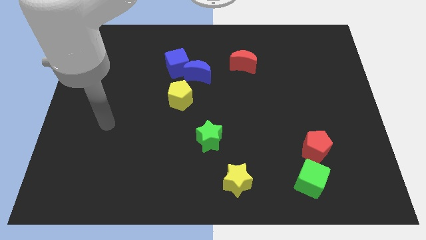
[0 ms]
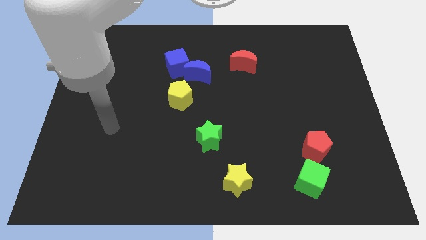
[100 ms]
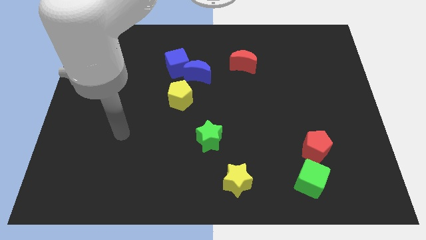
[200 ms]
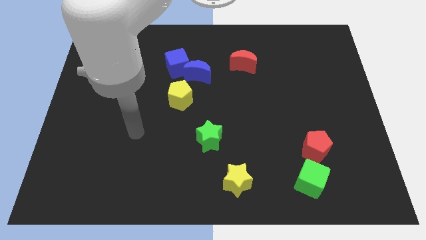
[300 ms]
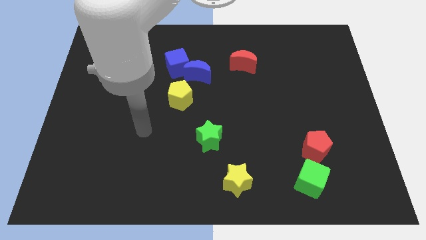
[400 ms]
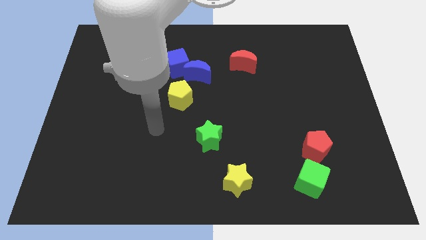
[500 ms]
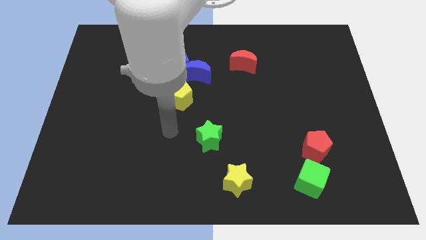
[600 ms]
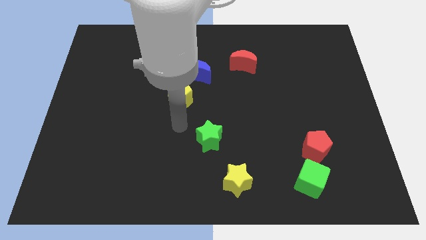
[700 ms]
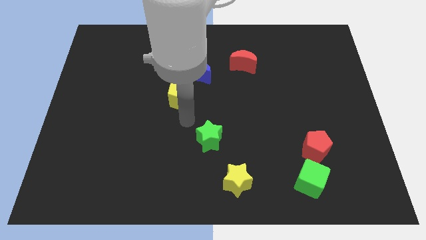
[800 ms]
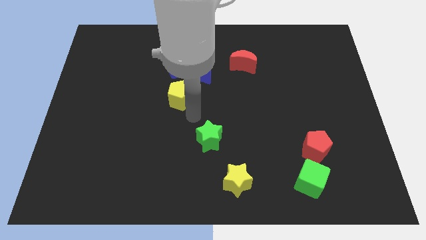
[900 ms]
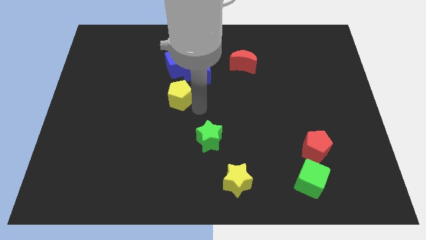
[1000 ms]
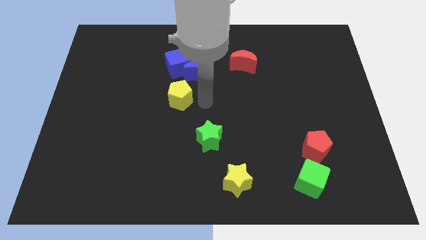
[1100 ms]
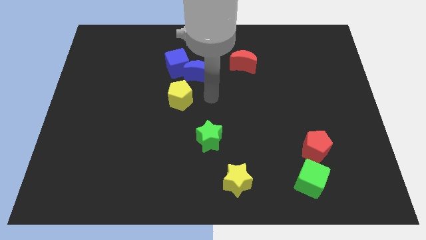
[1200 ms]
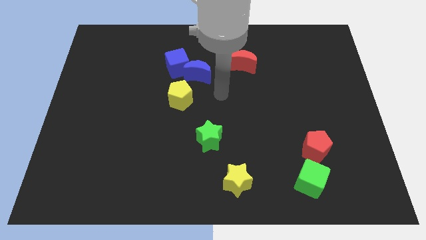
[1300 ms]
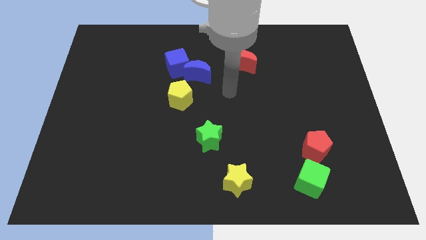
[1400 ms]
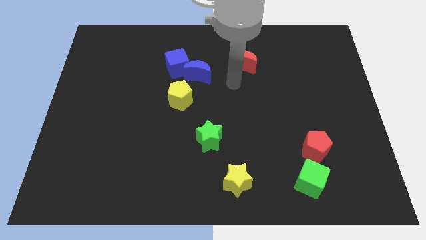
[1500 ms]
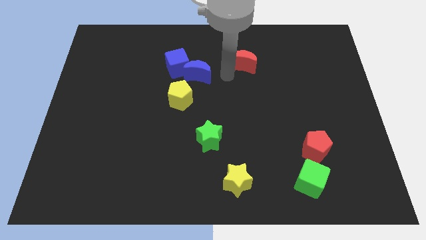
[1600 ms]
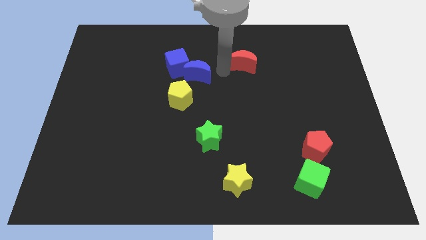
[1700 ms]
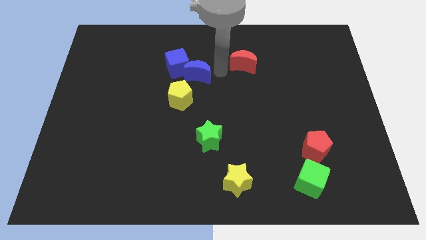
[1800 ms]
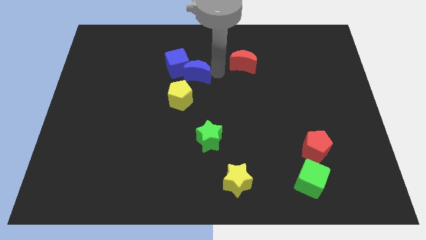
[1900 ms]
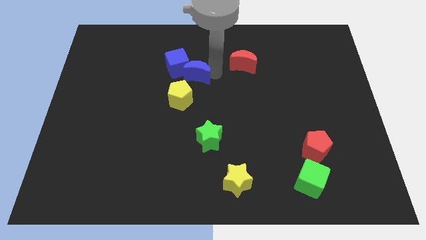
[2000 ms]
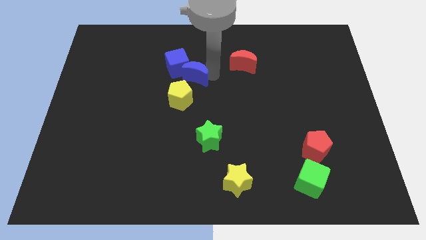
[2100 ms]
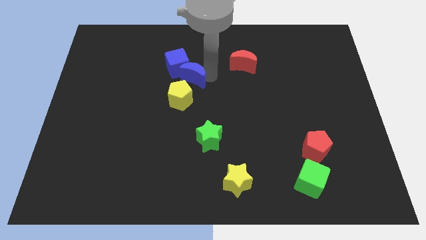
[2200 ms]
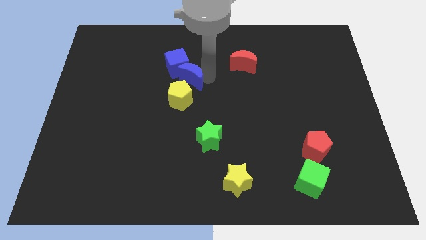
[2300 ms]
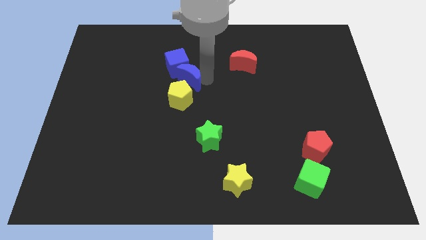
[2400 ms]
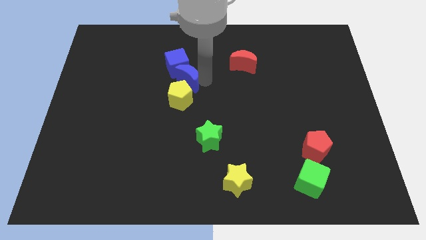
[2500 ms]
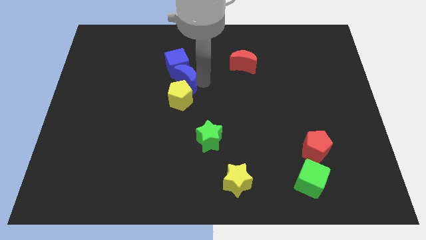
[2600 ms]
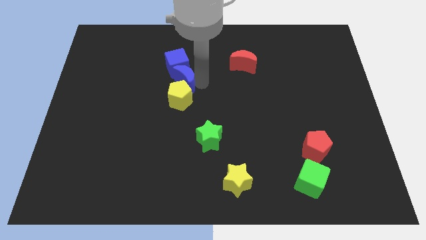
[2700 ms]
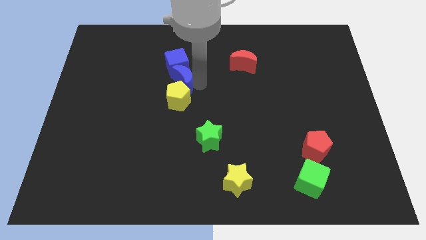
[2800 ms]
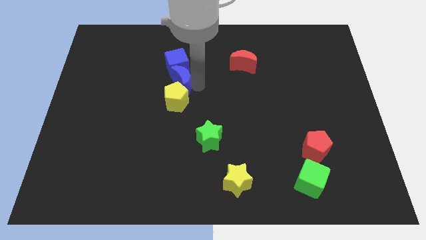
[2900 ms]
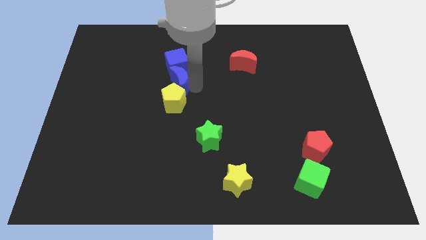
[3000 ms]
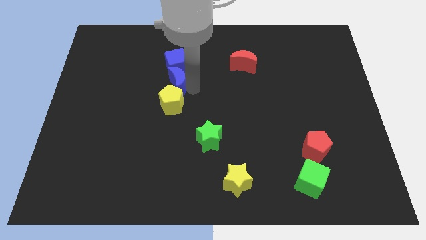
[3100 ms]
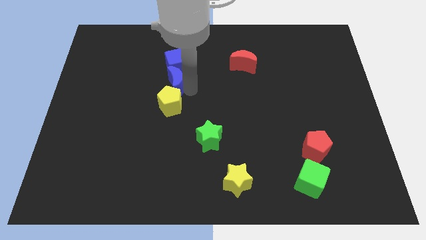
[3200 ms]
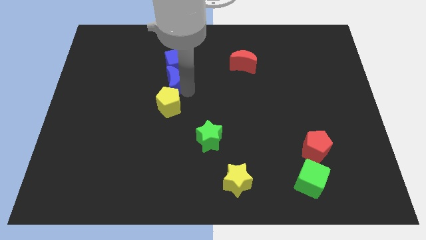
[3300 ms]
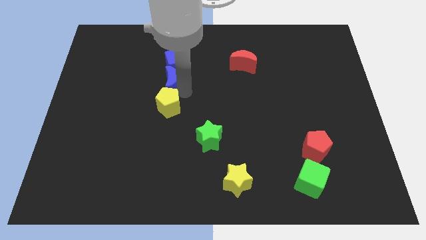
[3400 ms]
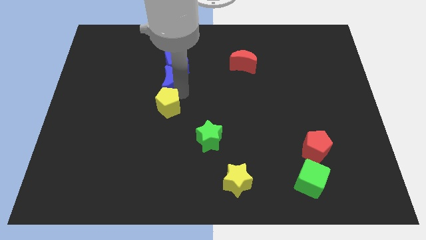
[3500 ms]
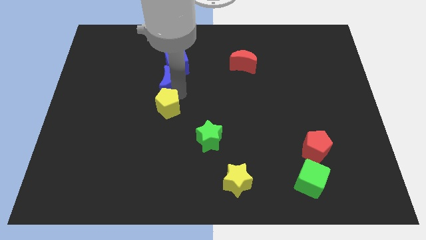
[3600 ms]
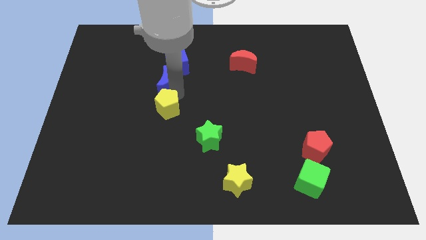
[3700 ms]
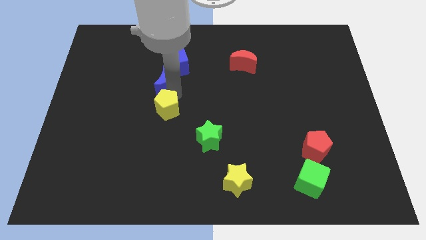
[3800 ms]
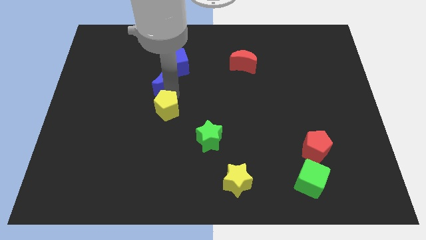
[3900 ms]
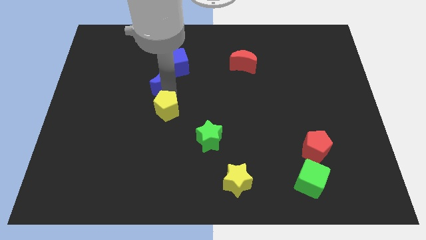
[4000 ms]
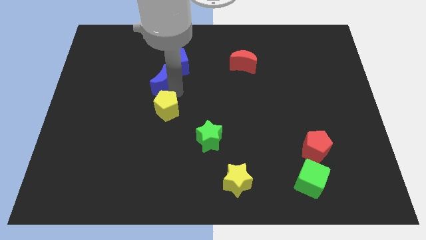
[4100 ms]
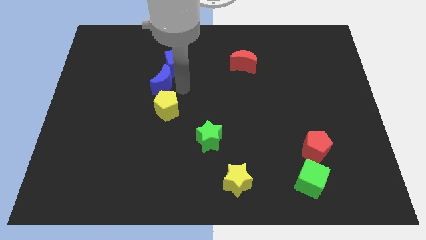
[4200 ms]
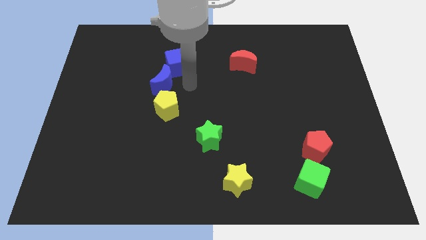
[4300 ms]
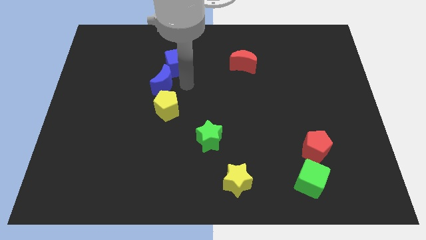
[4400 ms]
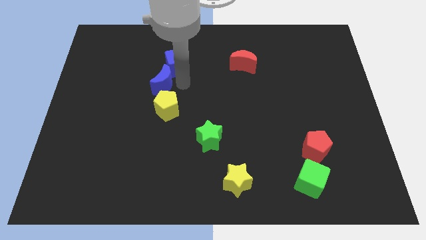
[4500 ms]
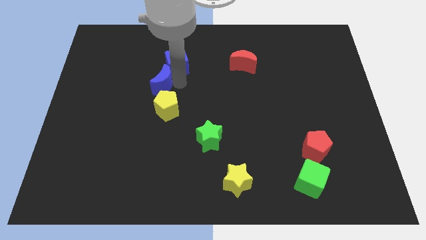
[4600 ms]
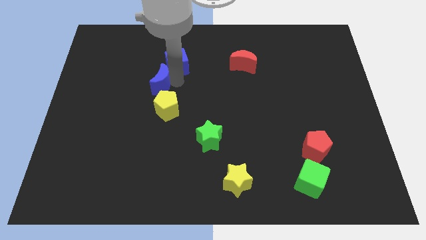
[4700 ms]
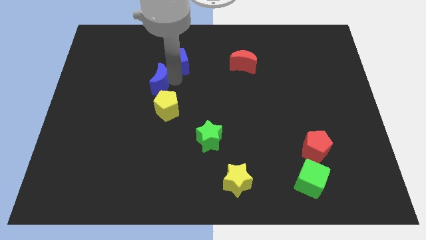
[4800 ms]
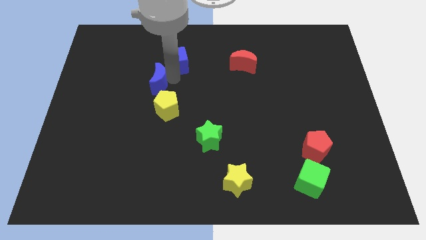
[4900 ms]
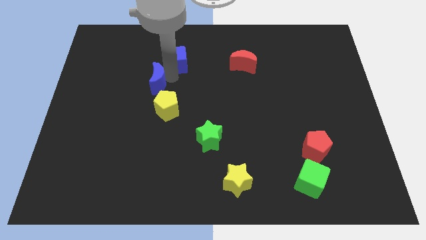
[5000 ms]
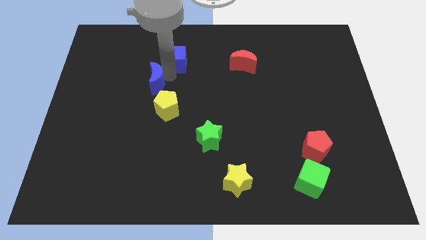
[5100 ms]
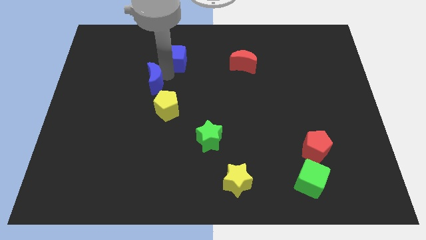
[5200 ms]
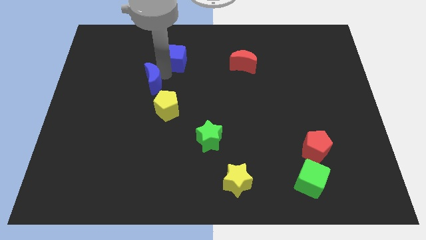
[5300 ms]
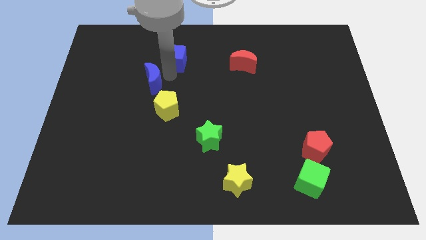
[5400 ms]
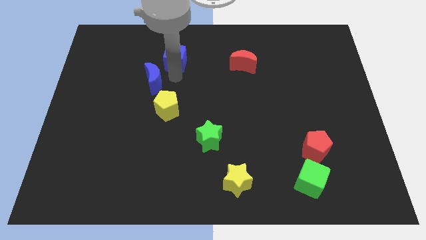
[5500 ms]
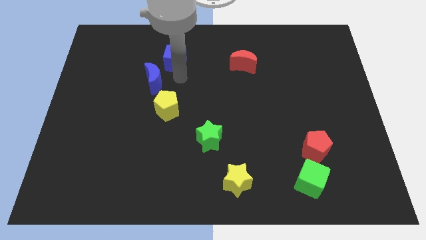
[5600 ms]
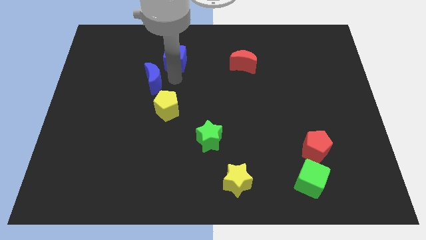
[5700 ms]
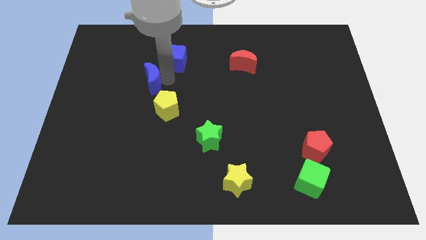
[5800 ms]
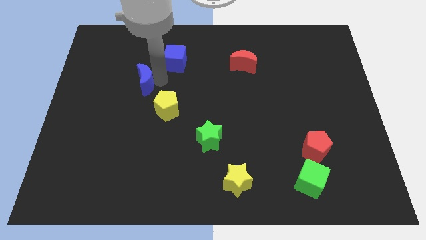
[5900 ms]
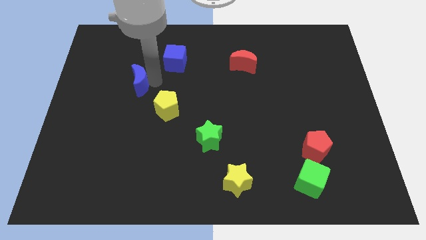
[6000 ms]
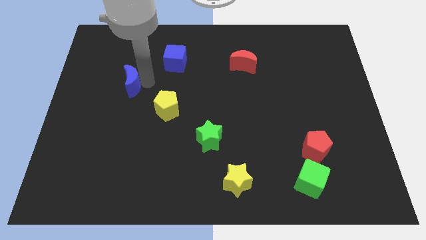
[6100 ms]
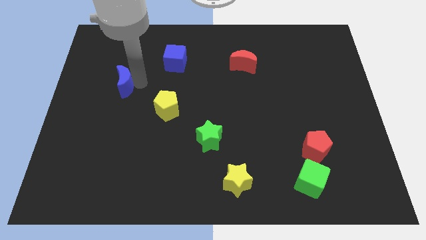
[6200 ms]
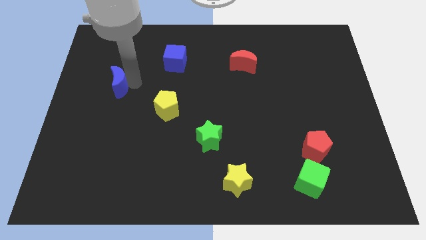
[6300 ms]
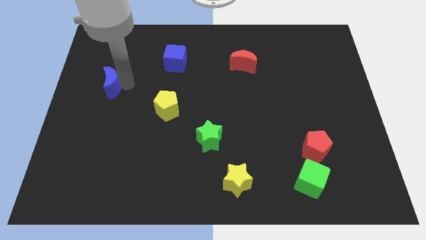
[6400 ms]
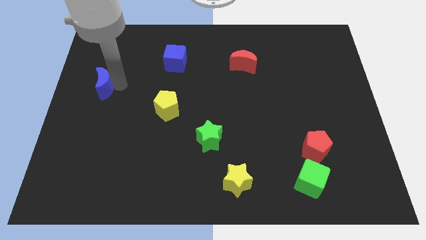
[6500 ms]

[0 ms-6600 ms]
move the blue moon to the center left

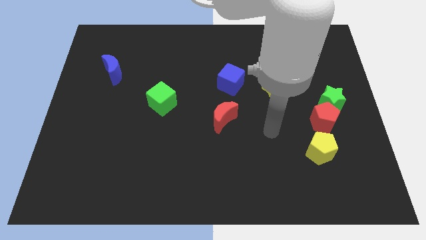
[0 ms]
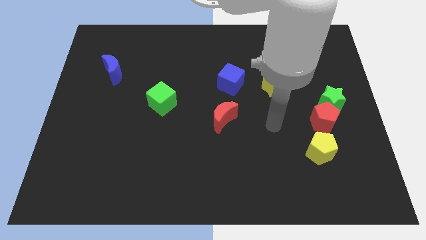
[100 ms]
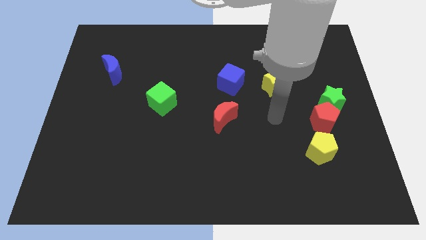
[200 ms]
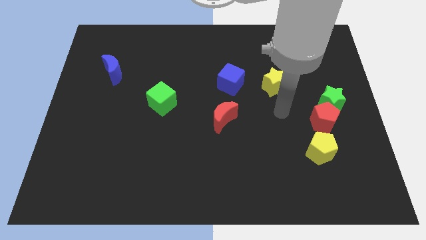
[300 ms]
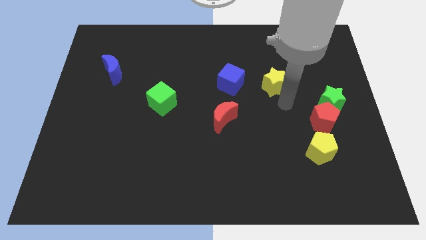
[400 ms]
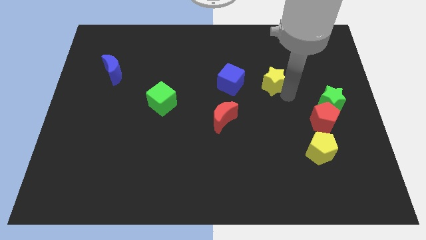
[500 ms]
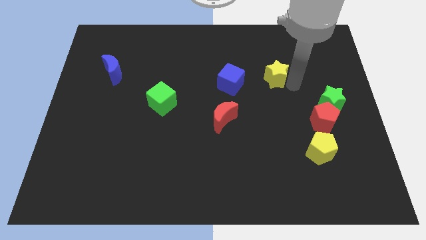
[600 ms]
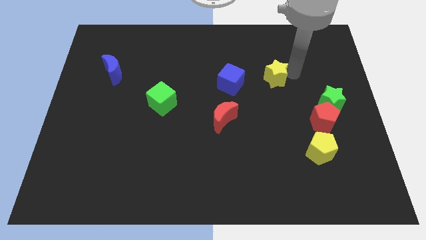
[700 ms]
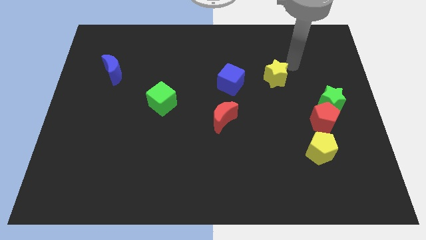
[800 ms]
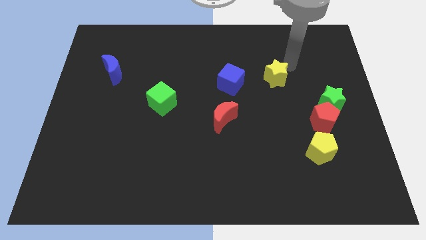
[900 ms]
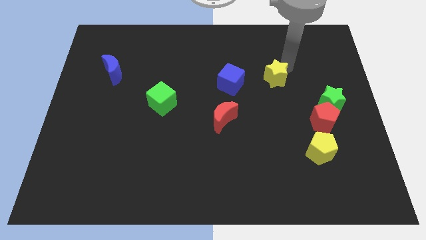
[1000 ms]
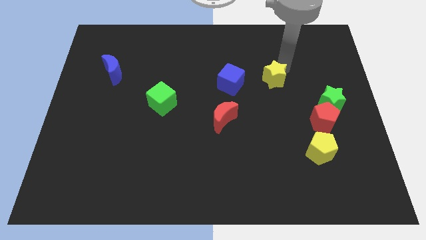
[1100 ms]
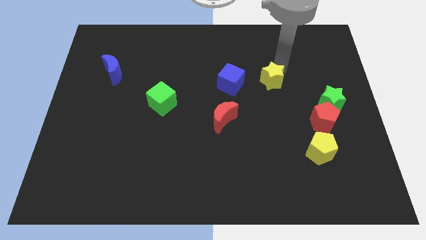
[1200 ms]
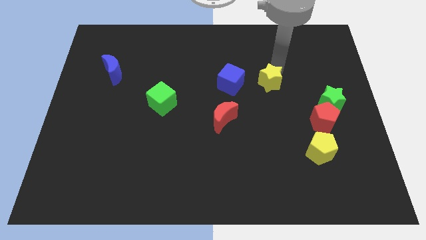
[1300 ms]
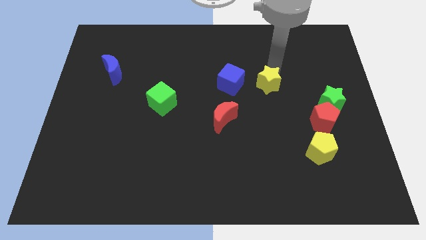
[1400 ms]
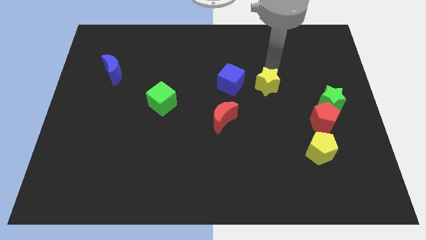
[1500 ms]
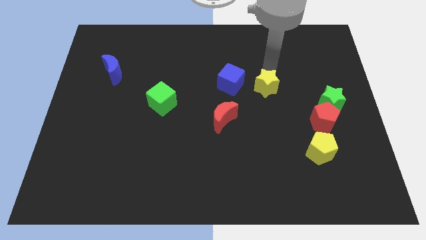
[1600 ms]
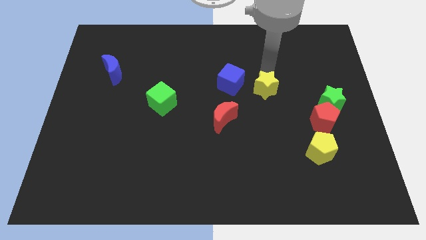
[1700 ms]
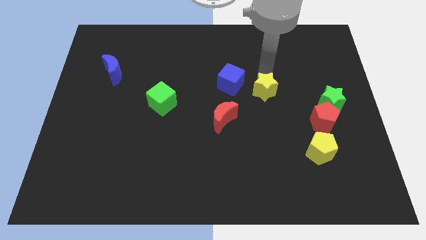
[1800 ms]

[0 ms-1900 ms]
push the yellow star to the middle
